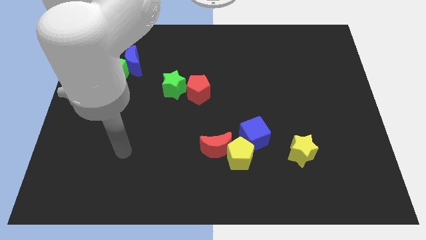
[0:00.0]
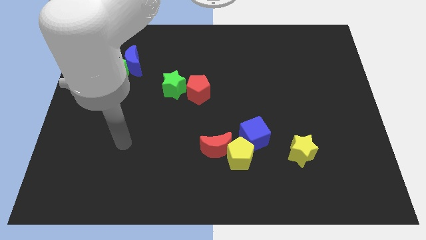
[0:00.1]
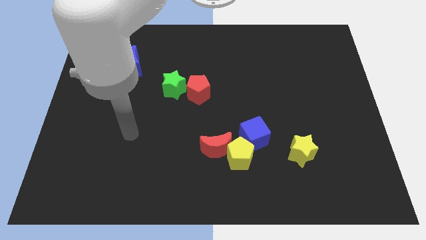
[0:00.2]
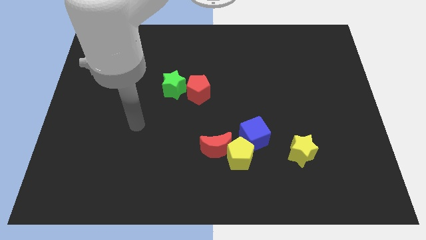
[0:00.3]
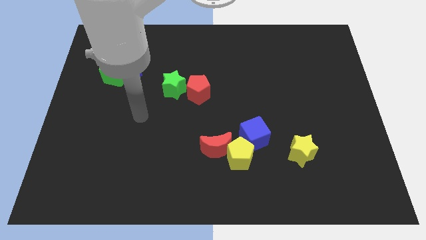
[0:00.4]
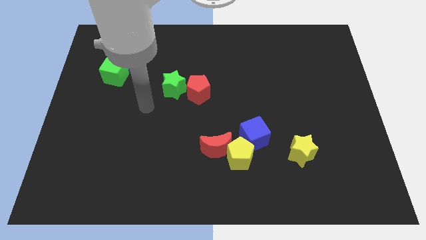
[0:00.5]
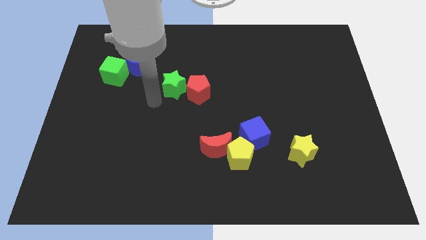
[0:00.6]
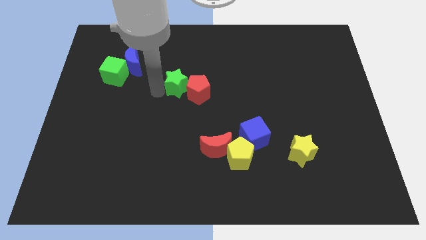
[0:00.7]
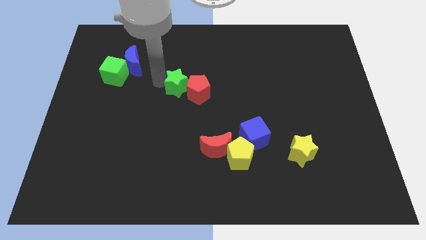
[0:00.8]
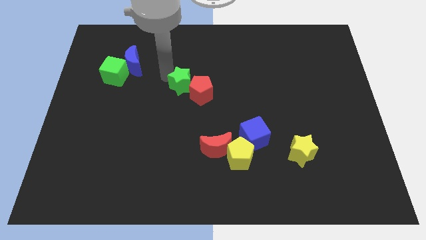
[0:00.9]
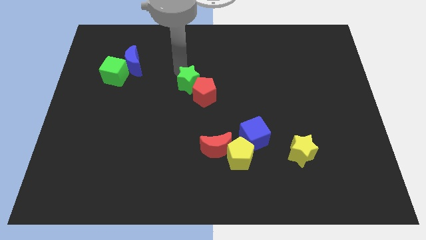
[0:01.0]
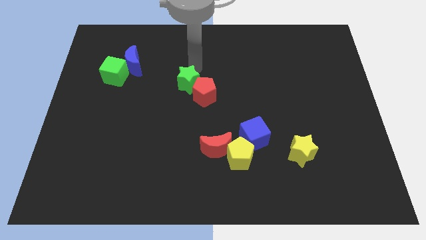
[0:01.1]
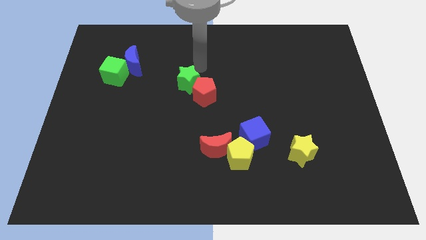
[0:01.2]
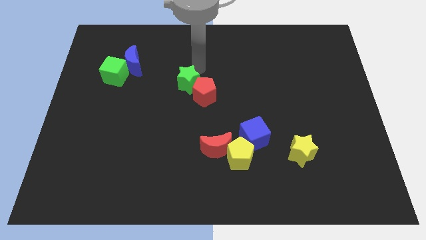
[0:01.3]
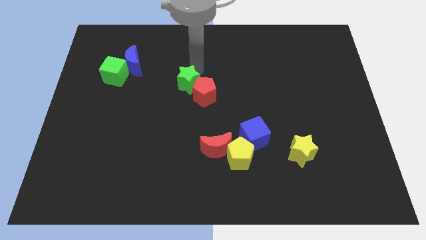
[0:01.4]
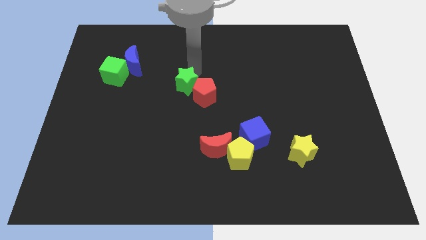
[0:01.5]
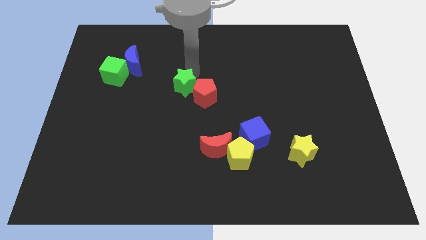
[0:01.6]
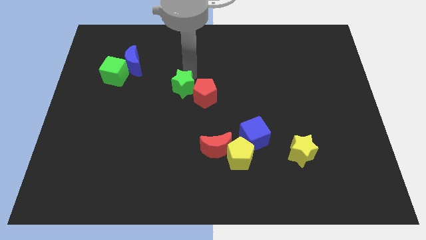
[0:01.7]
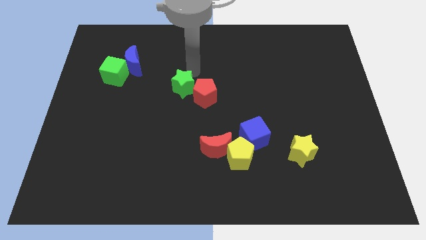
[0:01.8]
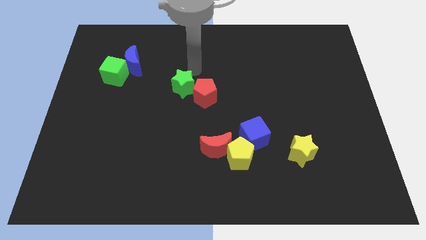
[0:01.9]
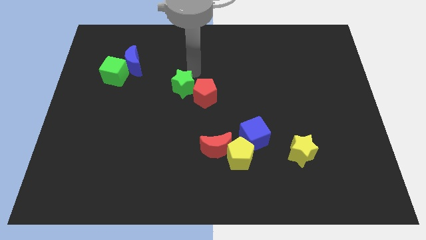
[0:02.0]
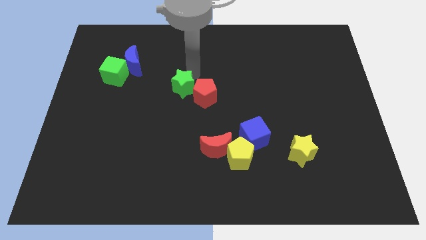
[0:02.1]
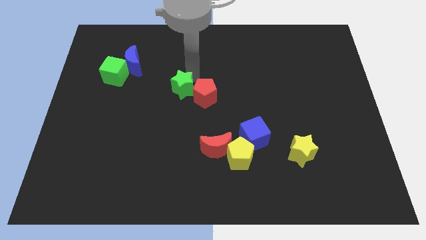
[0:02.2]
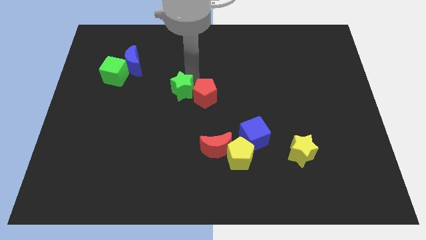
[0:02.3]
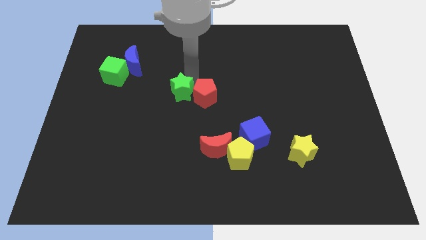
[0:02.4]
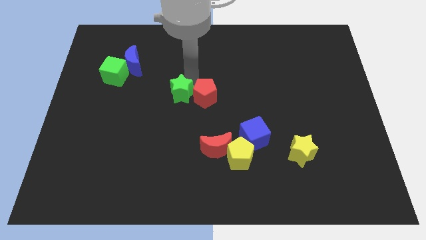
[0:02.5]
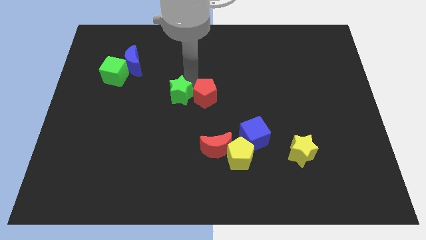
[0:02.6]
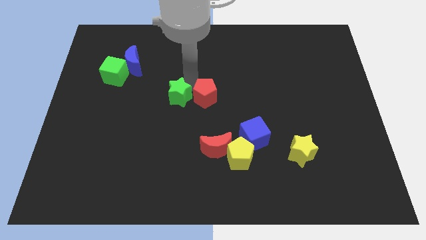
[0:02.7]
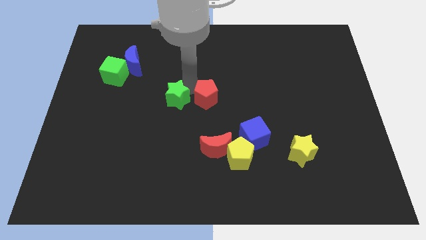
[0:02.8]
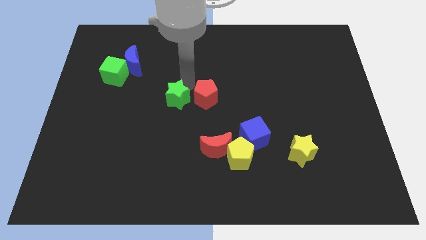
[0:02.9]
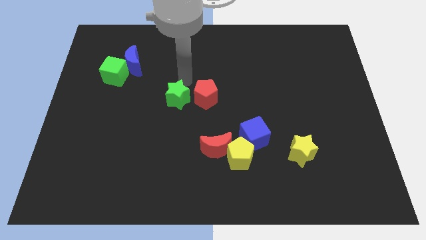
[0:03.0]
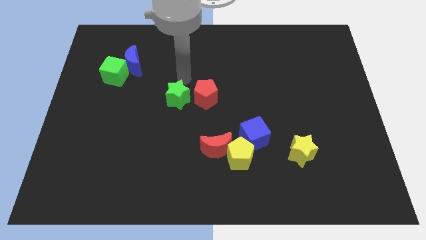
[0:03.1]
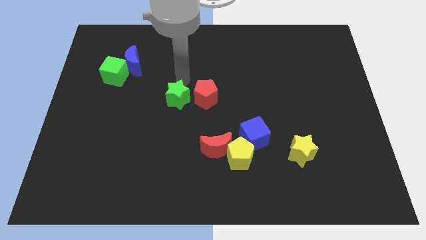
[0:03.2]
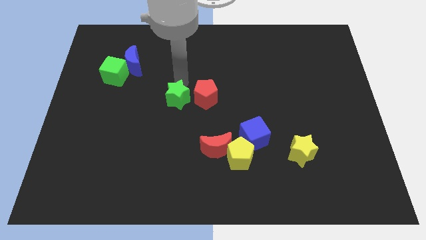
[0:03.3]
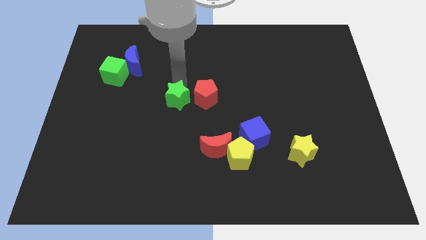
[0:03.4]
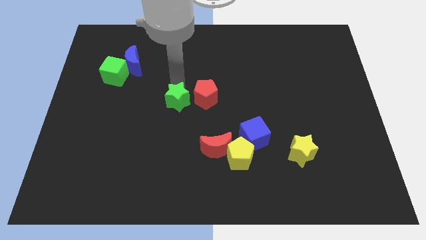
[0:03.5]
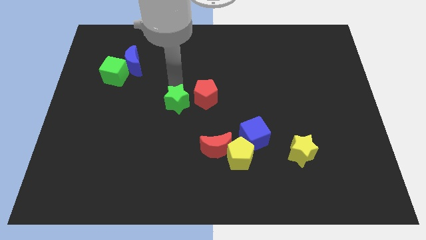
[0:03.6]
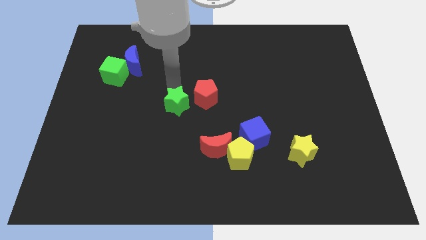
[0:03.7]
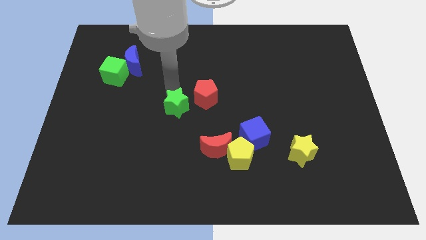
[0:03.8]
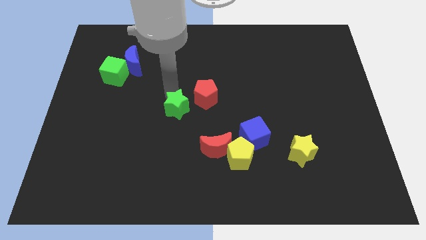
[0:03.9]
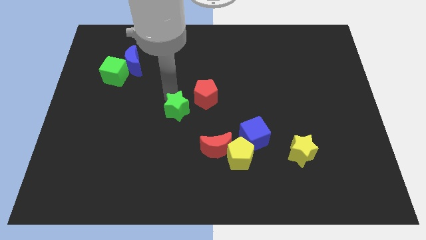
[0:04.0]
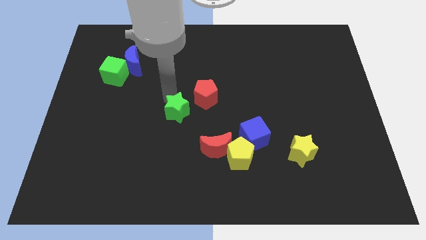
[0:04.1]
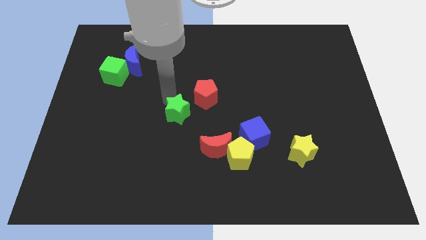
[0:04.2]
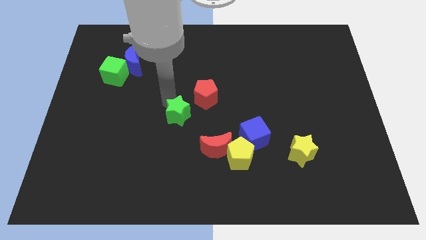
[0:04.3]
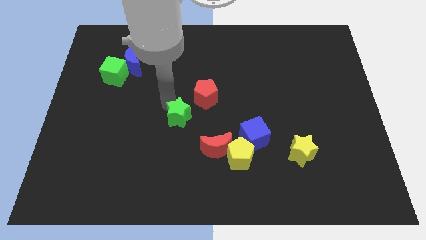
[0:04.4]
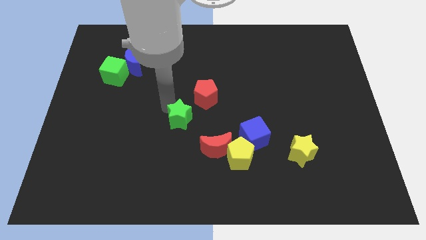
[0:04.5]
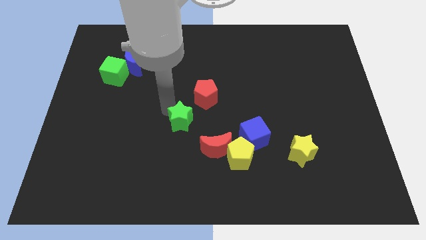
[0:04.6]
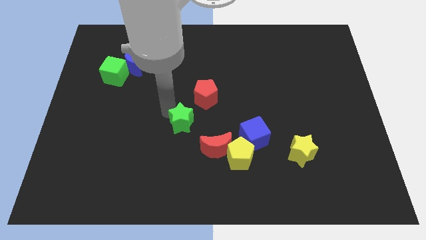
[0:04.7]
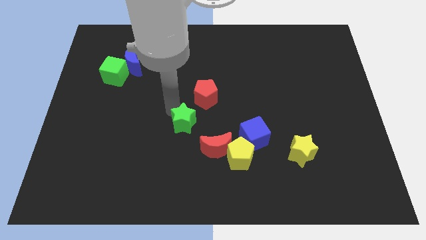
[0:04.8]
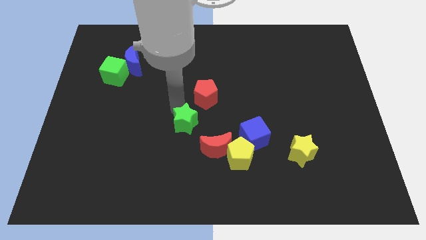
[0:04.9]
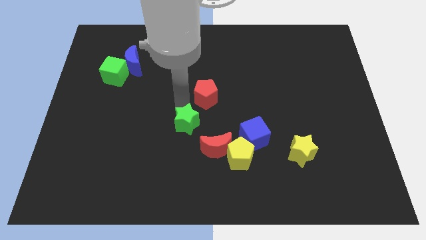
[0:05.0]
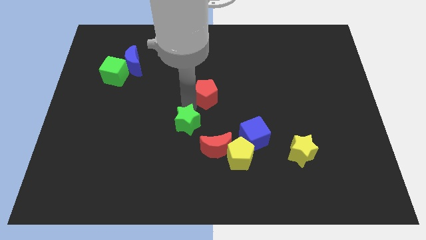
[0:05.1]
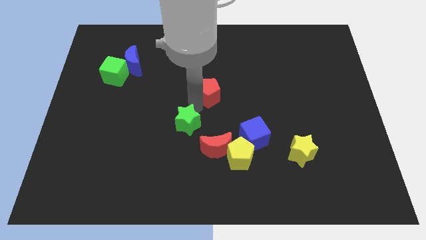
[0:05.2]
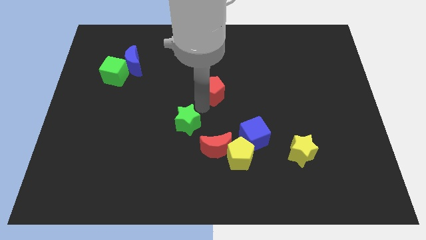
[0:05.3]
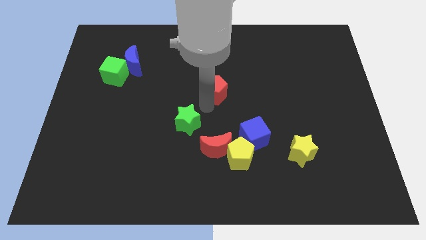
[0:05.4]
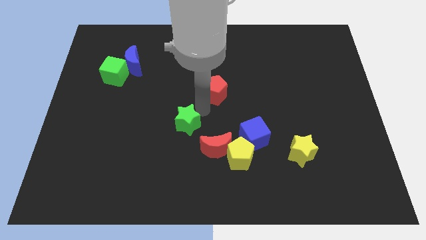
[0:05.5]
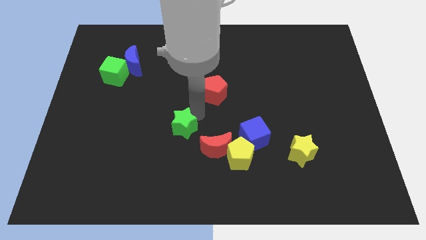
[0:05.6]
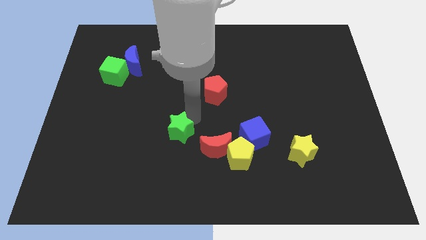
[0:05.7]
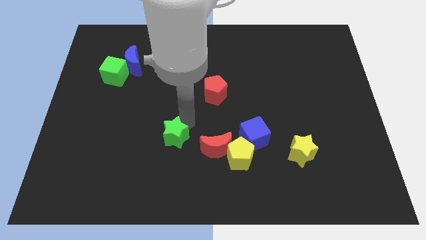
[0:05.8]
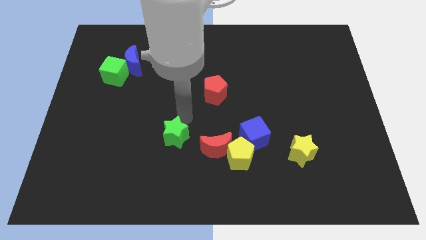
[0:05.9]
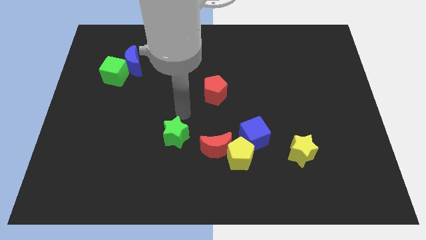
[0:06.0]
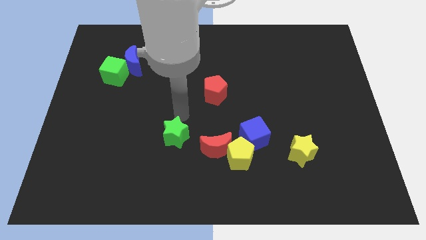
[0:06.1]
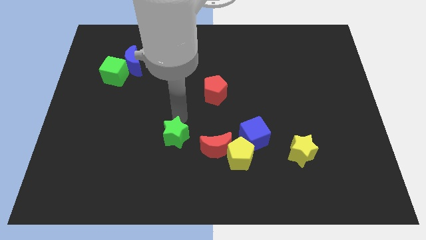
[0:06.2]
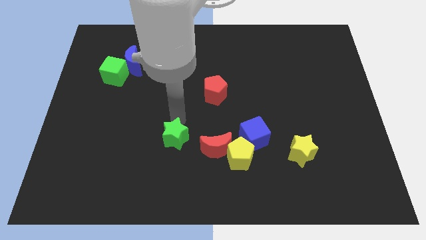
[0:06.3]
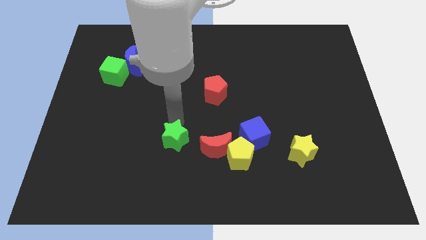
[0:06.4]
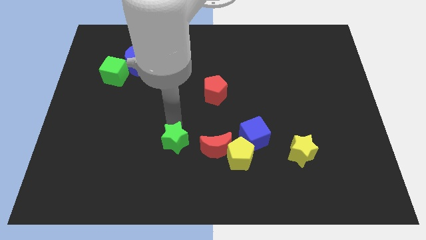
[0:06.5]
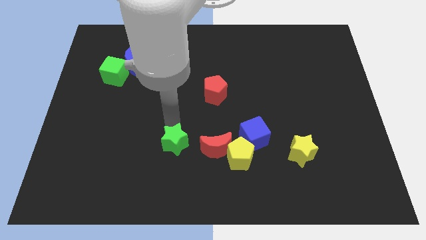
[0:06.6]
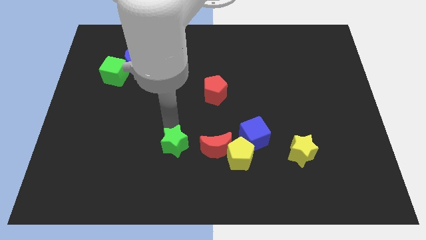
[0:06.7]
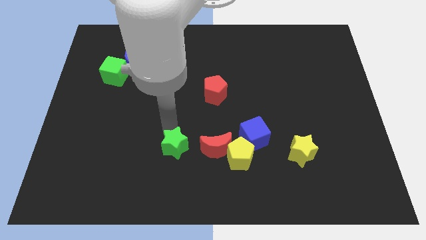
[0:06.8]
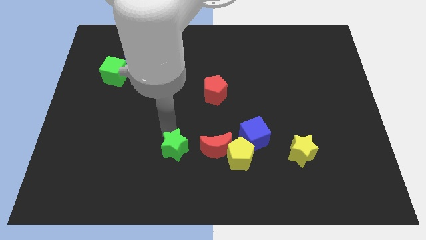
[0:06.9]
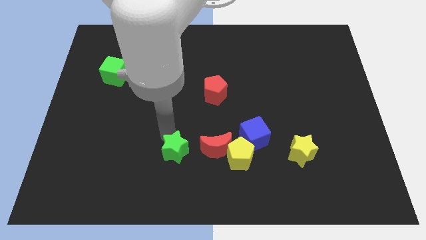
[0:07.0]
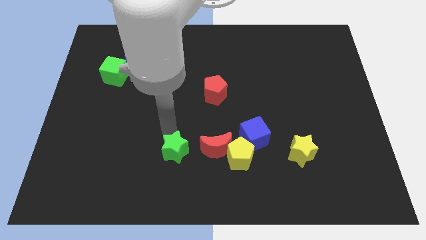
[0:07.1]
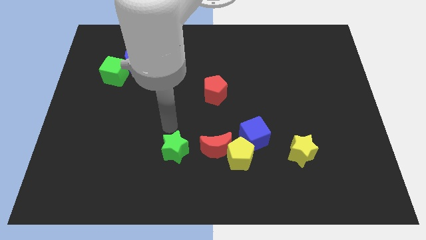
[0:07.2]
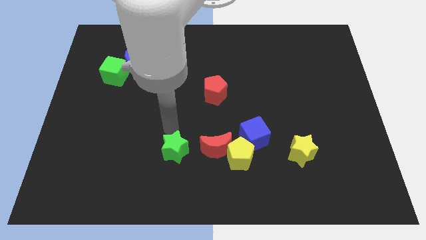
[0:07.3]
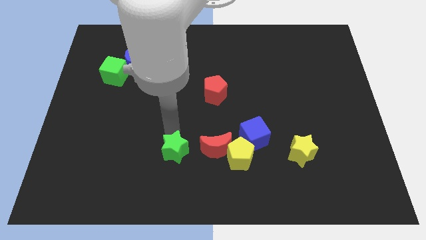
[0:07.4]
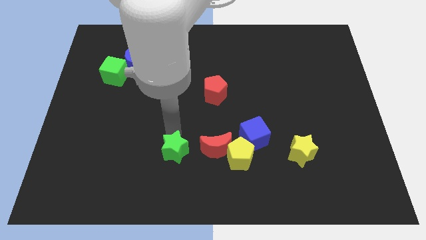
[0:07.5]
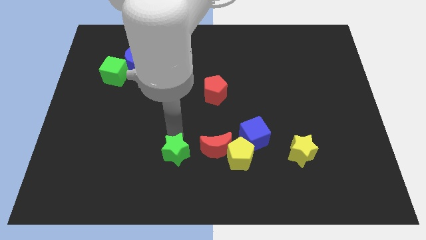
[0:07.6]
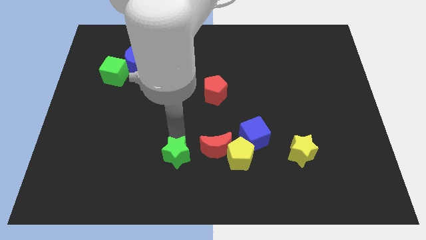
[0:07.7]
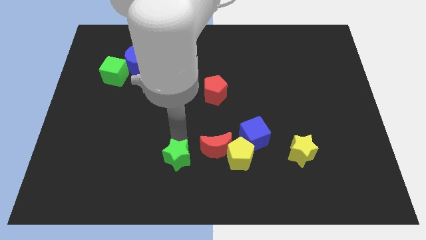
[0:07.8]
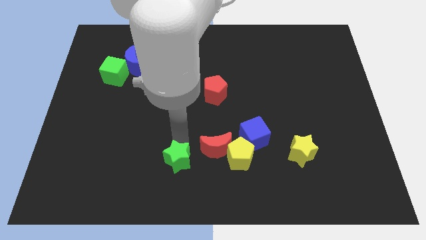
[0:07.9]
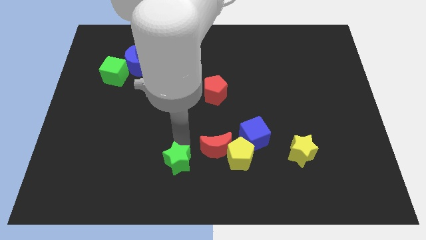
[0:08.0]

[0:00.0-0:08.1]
move the green star to the bottom side
